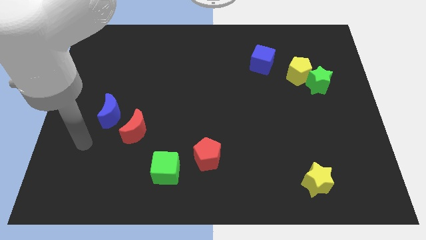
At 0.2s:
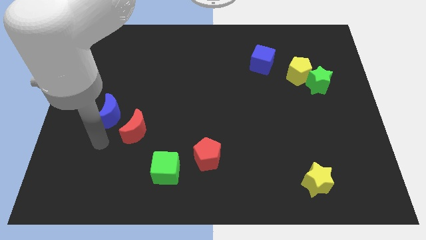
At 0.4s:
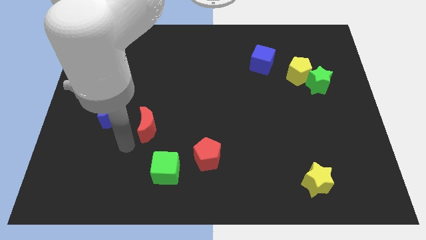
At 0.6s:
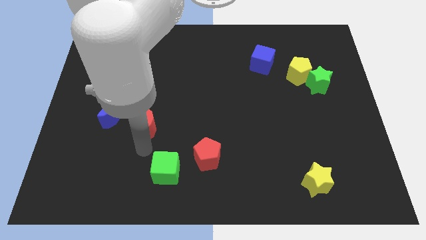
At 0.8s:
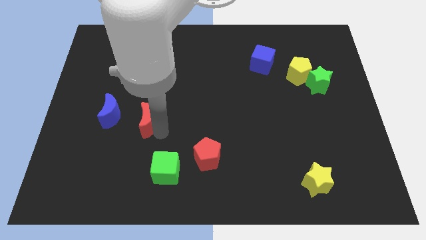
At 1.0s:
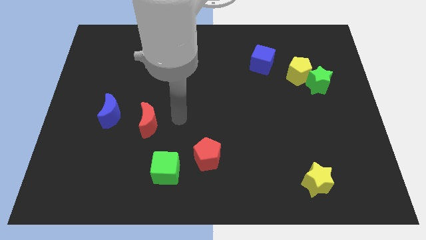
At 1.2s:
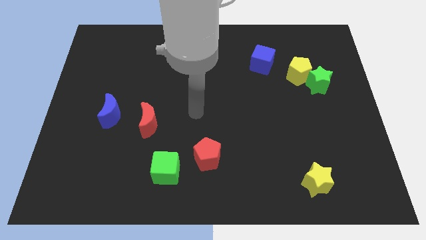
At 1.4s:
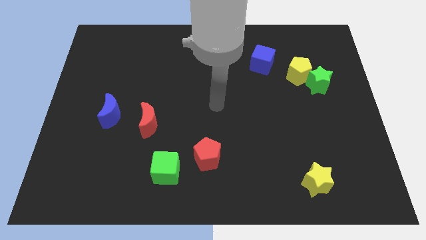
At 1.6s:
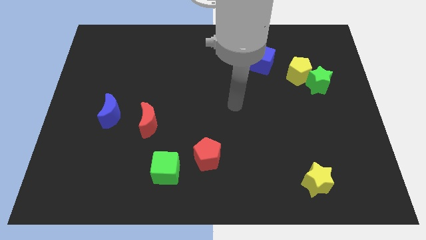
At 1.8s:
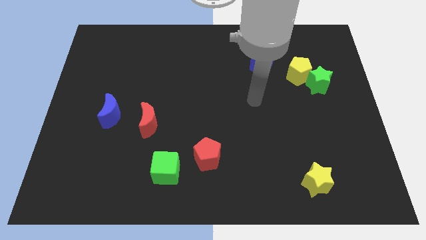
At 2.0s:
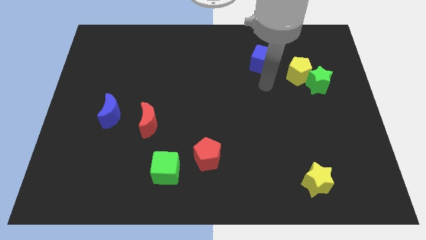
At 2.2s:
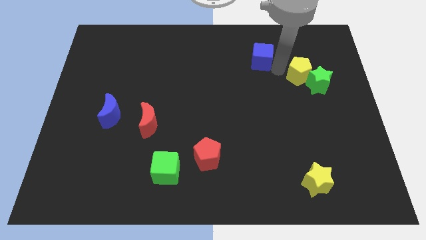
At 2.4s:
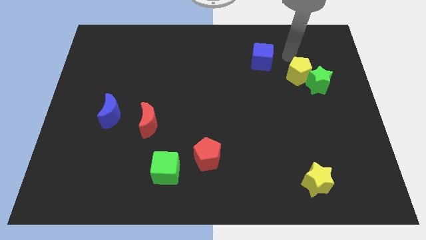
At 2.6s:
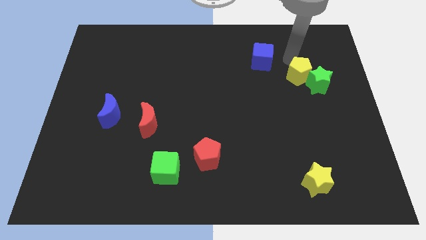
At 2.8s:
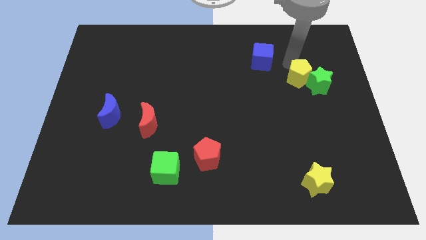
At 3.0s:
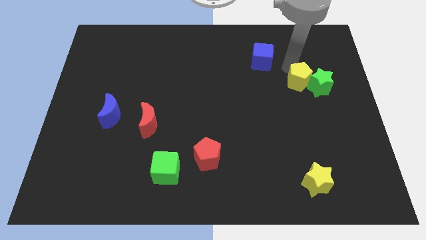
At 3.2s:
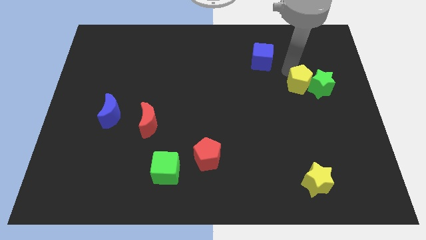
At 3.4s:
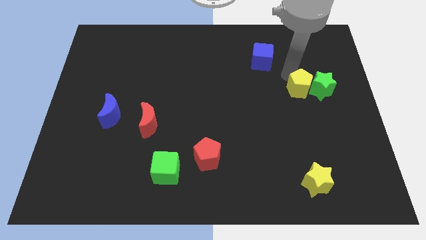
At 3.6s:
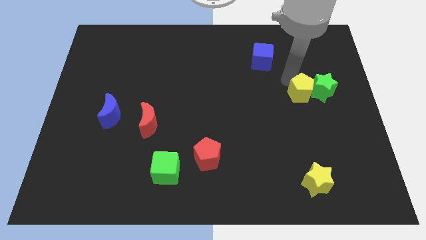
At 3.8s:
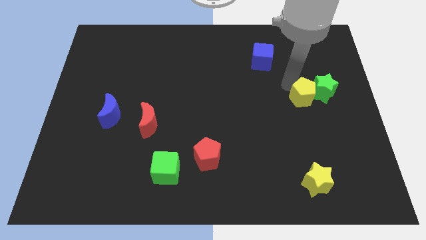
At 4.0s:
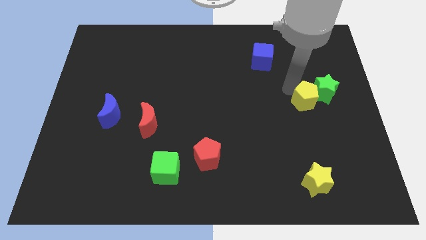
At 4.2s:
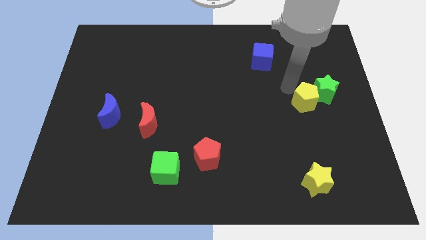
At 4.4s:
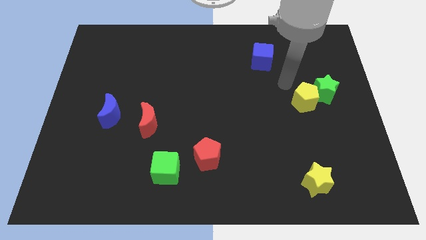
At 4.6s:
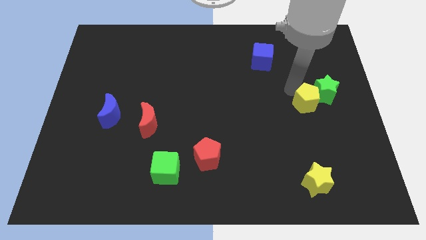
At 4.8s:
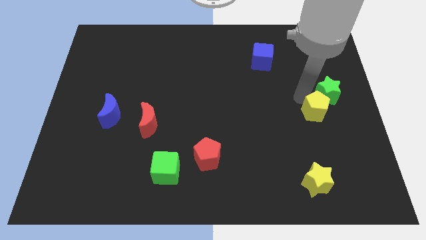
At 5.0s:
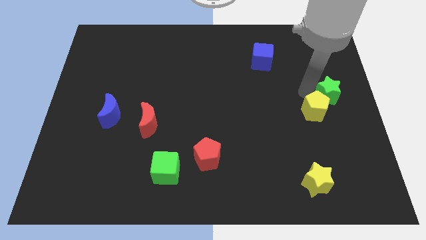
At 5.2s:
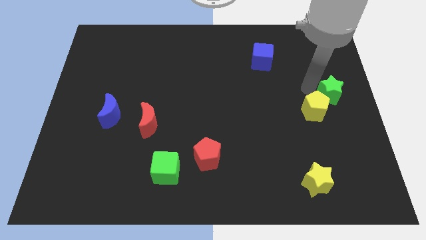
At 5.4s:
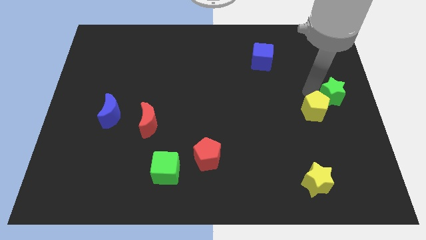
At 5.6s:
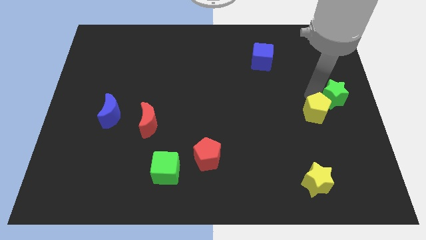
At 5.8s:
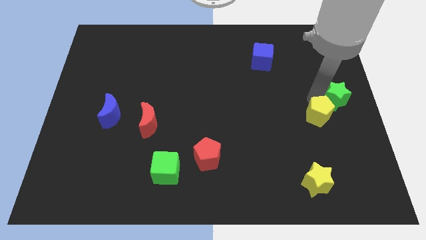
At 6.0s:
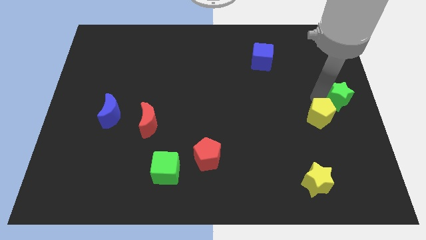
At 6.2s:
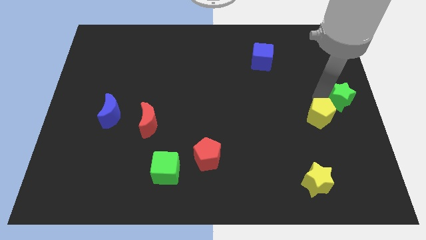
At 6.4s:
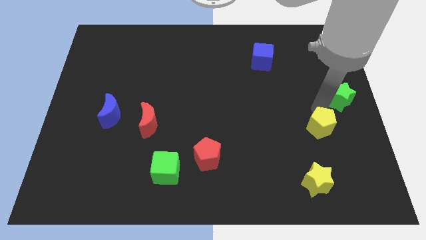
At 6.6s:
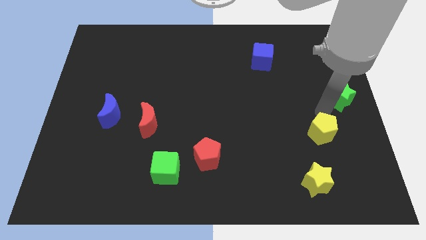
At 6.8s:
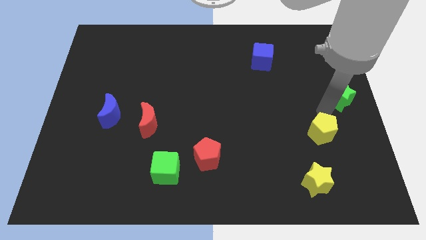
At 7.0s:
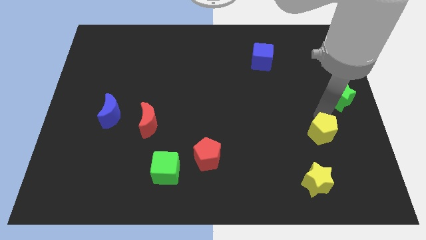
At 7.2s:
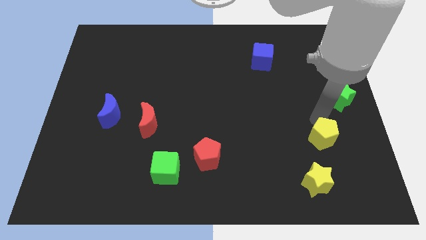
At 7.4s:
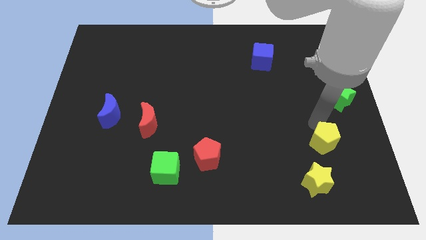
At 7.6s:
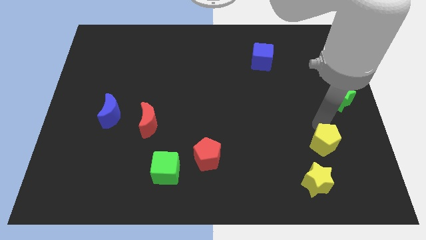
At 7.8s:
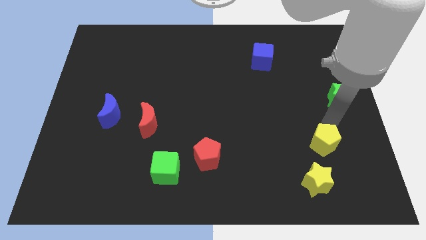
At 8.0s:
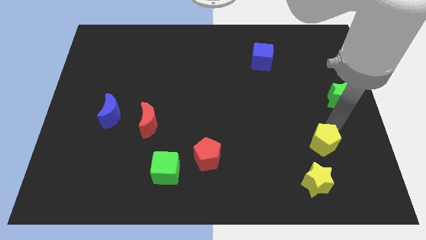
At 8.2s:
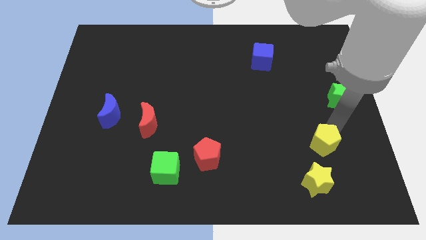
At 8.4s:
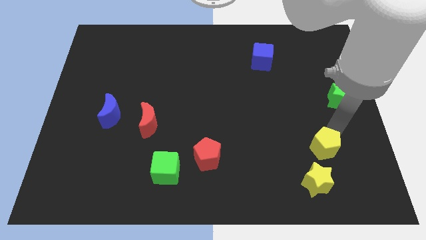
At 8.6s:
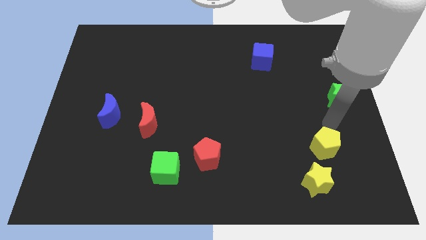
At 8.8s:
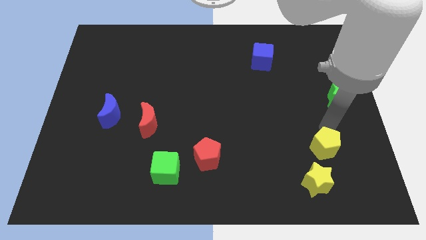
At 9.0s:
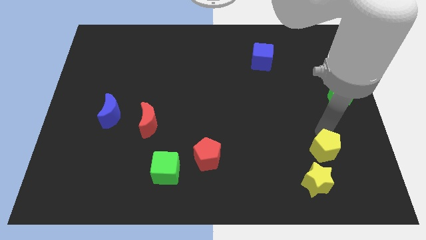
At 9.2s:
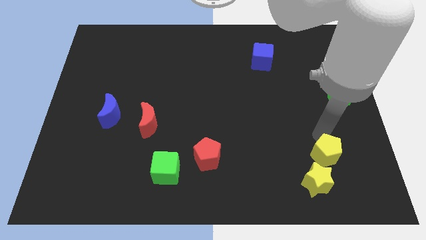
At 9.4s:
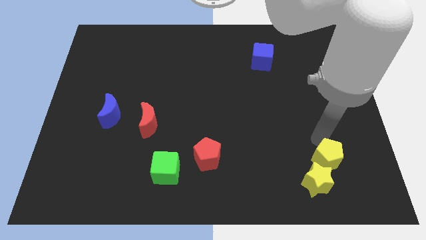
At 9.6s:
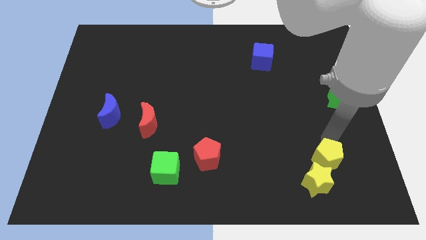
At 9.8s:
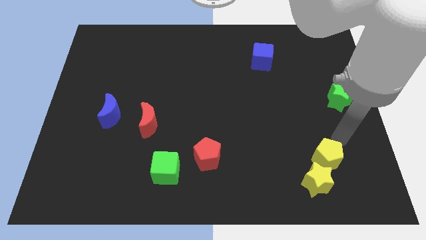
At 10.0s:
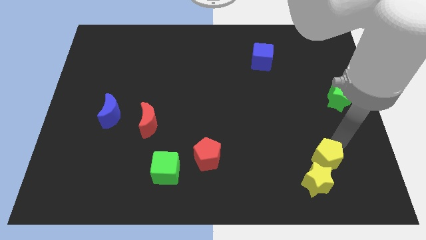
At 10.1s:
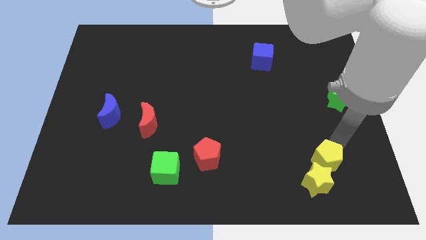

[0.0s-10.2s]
slide the yellow pentagon close to the yellow star

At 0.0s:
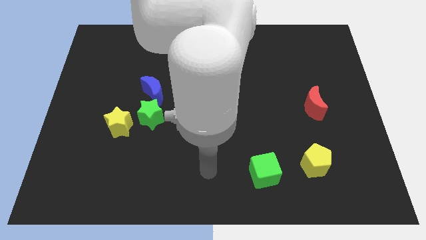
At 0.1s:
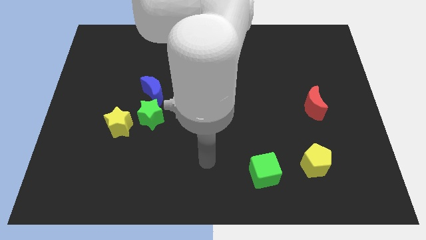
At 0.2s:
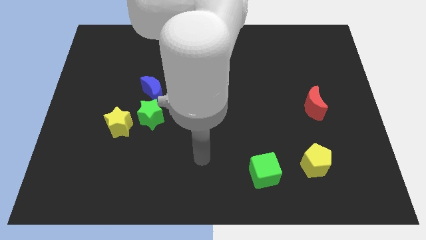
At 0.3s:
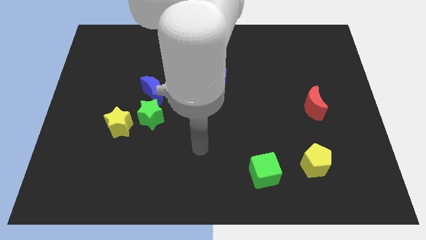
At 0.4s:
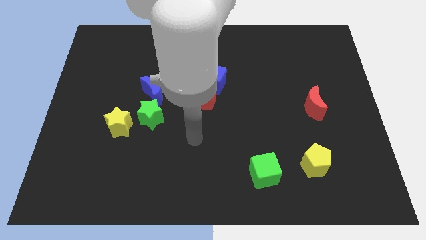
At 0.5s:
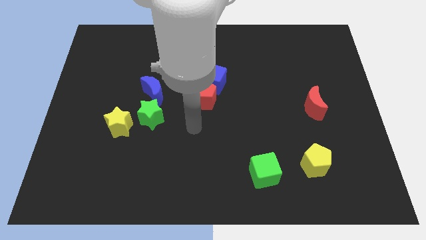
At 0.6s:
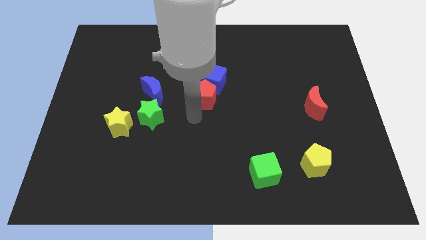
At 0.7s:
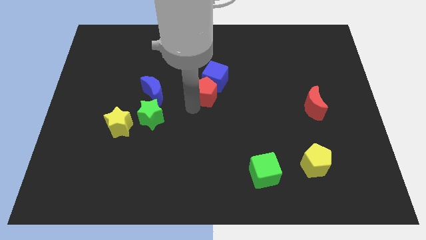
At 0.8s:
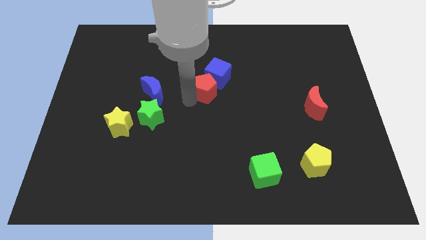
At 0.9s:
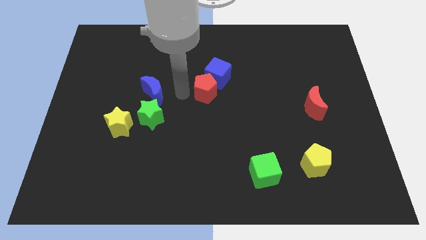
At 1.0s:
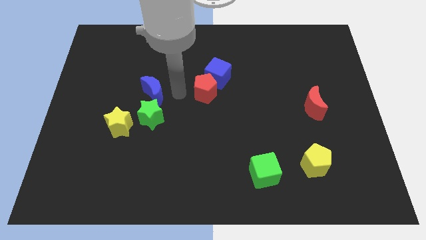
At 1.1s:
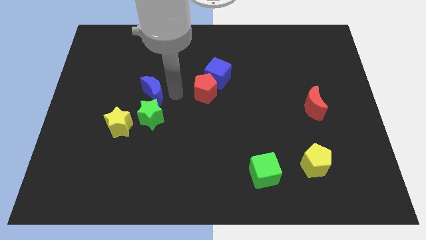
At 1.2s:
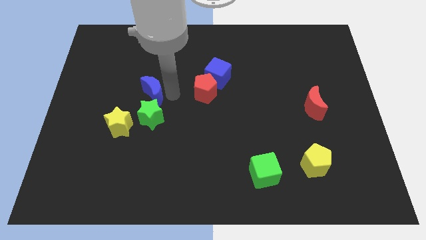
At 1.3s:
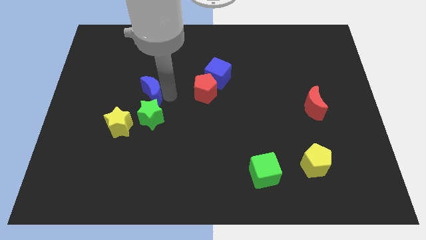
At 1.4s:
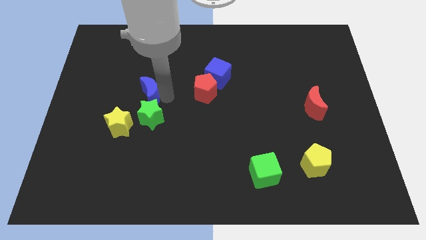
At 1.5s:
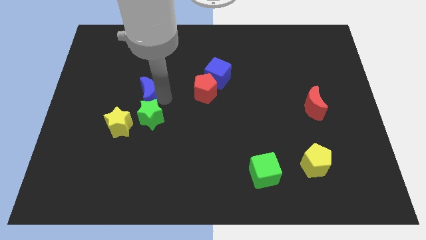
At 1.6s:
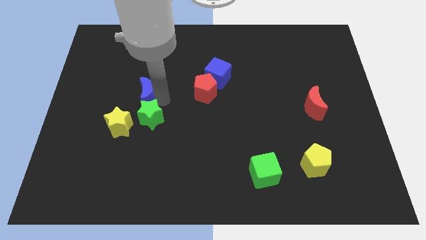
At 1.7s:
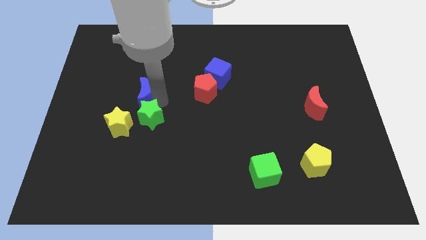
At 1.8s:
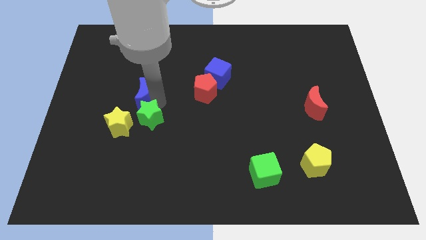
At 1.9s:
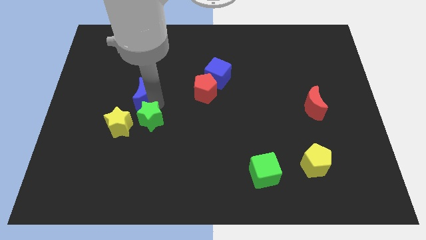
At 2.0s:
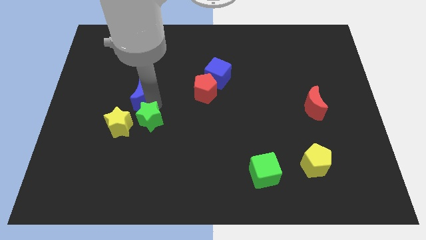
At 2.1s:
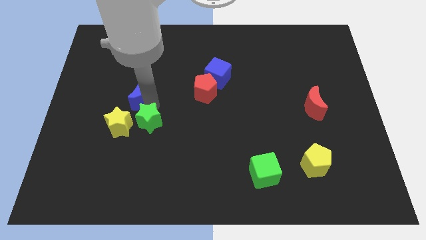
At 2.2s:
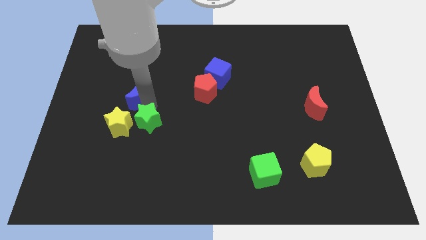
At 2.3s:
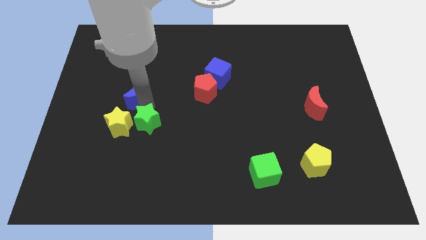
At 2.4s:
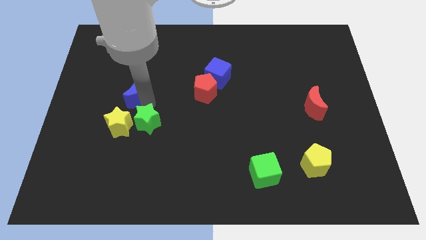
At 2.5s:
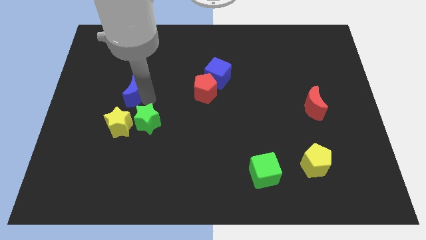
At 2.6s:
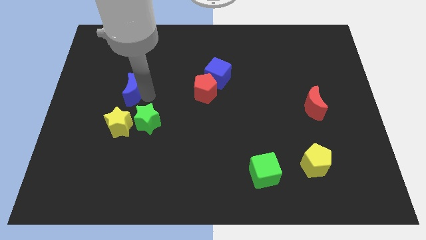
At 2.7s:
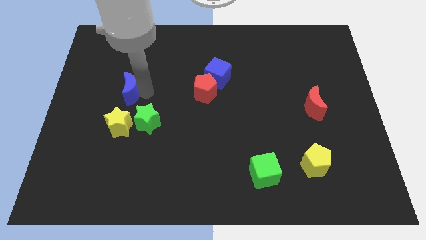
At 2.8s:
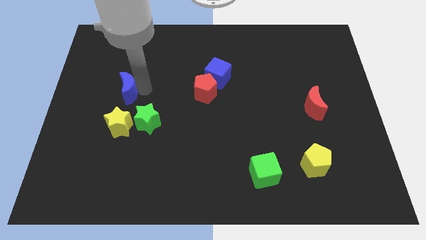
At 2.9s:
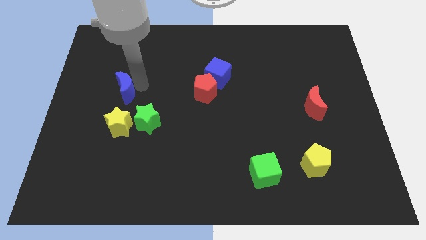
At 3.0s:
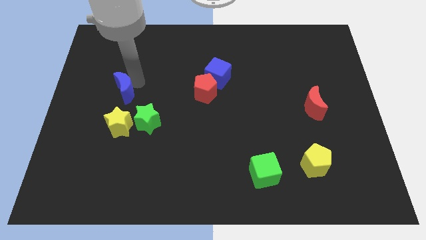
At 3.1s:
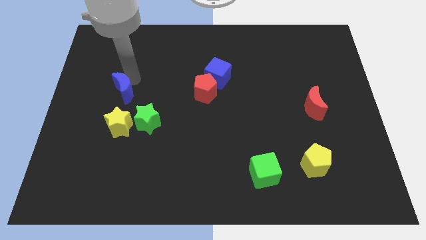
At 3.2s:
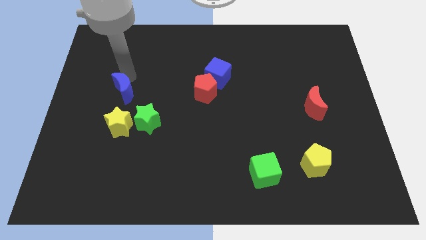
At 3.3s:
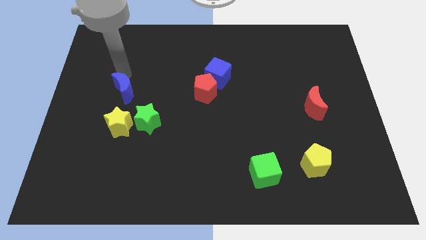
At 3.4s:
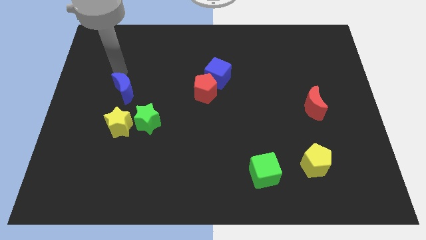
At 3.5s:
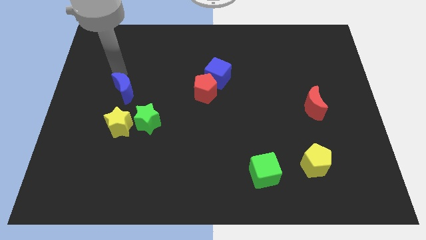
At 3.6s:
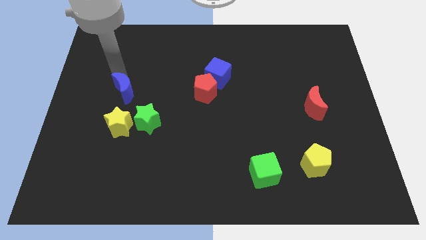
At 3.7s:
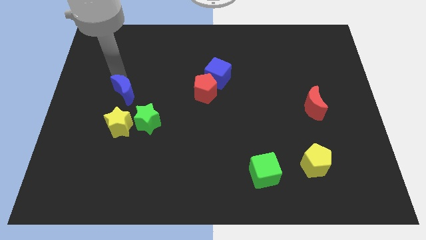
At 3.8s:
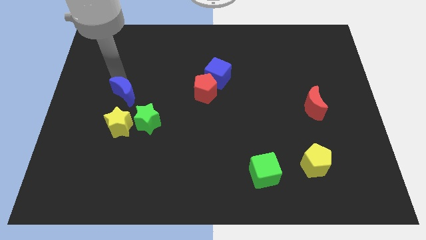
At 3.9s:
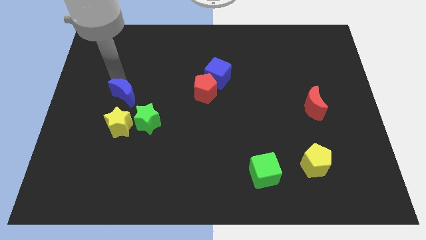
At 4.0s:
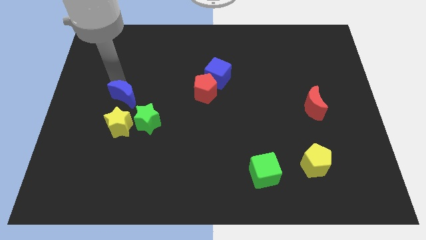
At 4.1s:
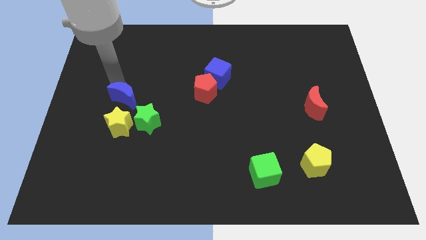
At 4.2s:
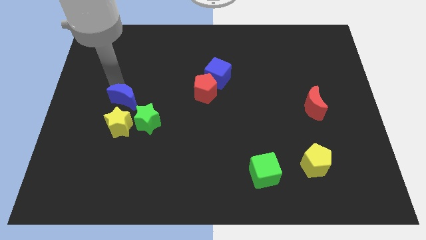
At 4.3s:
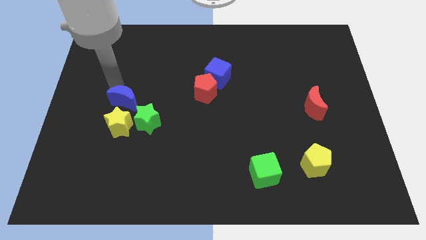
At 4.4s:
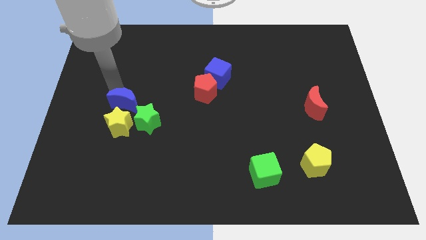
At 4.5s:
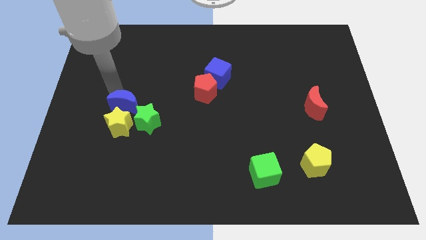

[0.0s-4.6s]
slide the blue moon close to the yellow star
